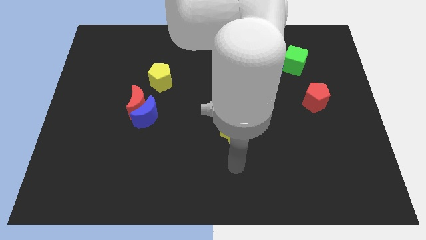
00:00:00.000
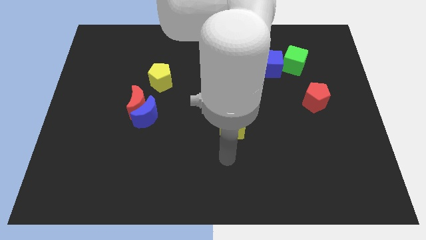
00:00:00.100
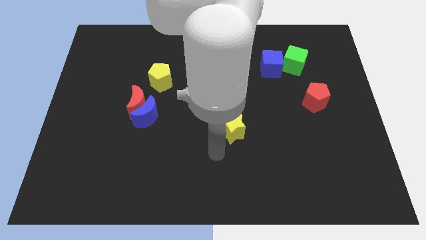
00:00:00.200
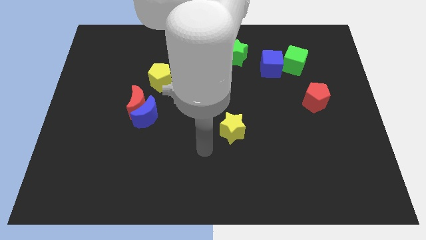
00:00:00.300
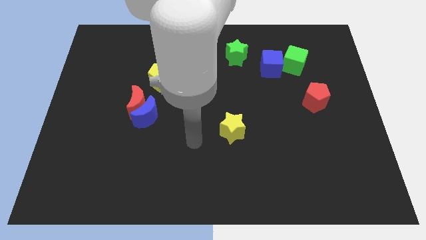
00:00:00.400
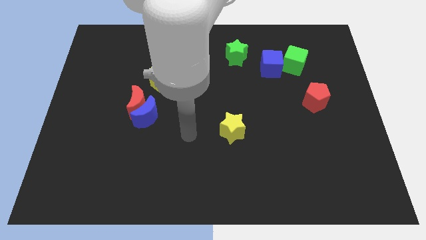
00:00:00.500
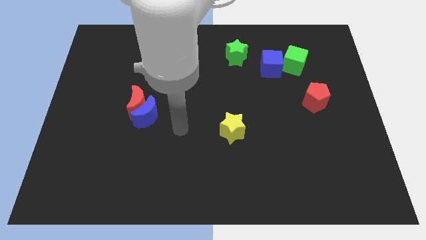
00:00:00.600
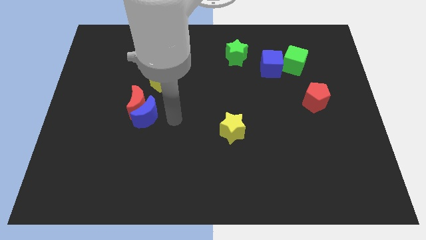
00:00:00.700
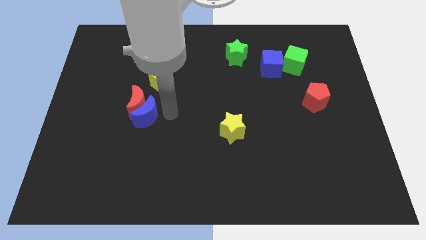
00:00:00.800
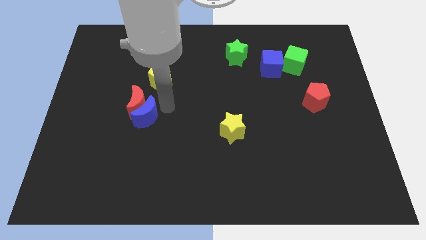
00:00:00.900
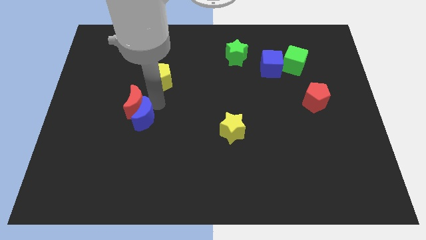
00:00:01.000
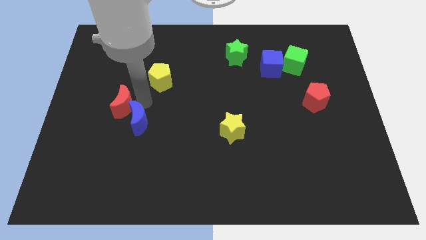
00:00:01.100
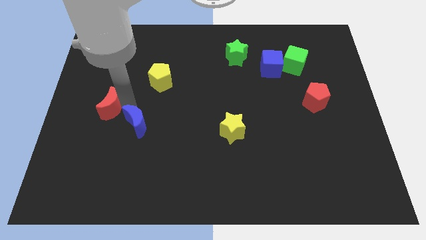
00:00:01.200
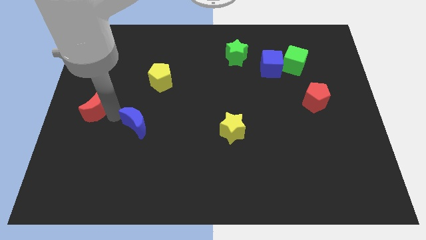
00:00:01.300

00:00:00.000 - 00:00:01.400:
move the blue moon away from the red moon

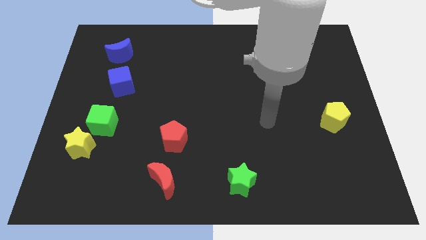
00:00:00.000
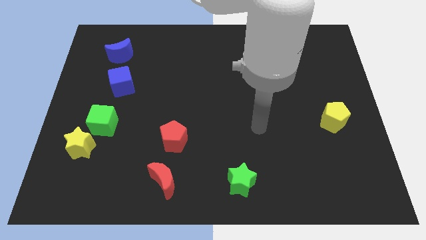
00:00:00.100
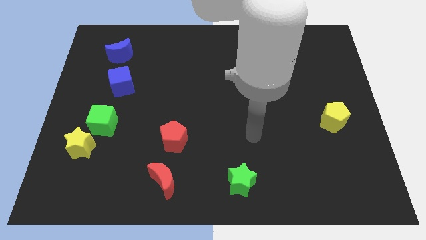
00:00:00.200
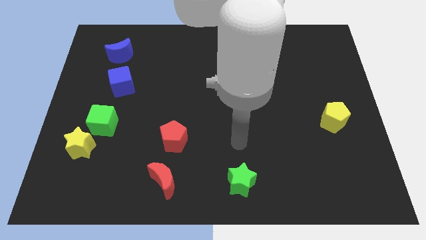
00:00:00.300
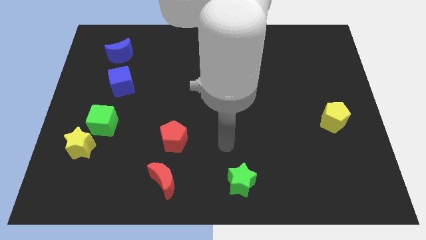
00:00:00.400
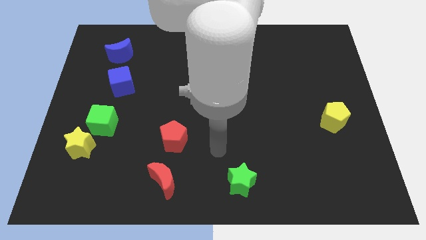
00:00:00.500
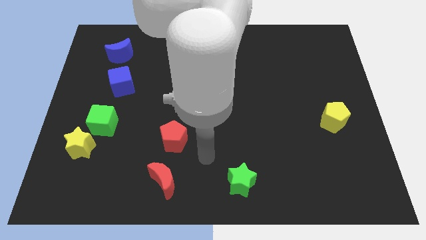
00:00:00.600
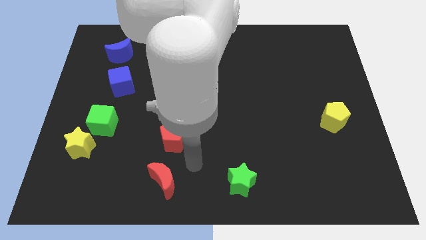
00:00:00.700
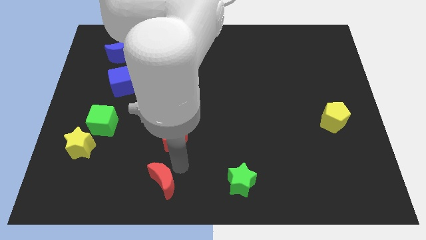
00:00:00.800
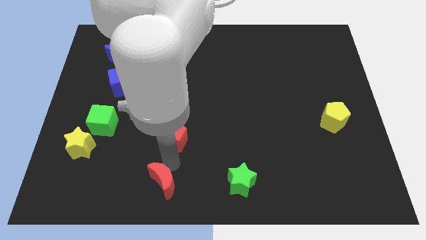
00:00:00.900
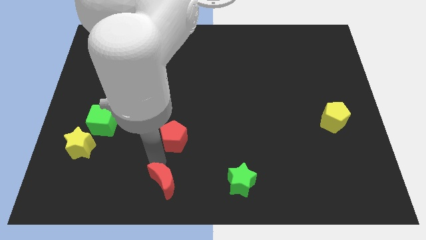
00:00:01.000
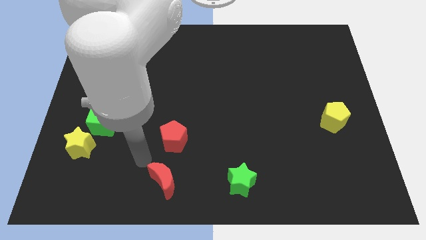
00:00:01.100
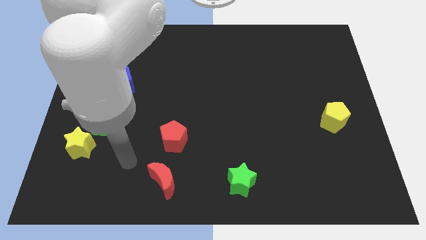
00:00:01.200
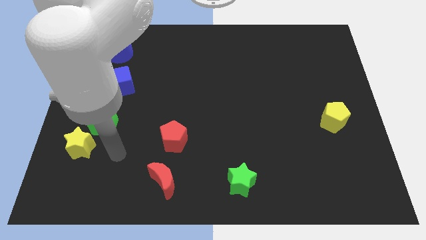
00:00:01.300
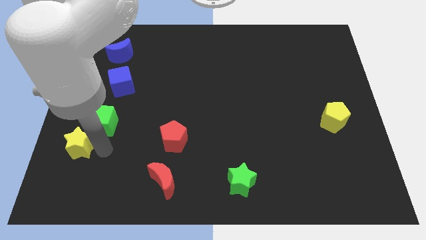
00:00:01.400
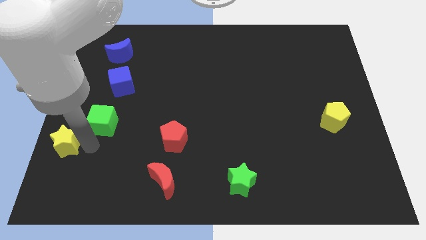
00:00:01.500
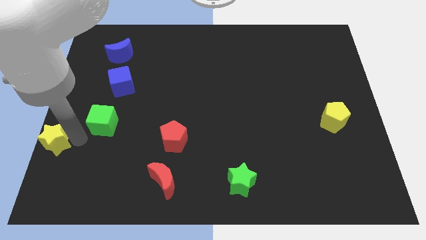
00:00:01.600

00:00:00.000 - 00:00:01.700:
separate the green cube from the yellow star

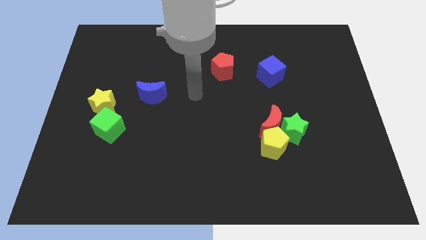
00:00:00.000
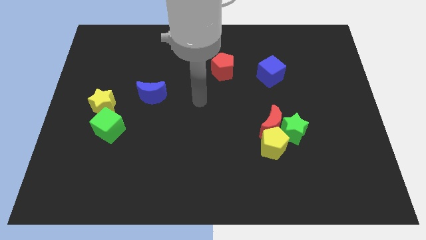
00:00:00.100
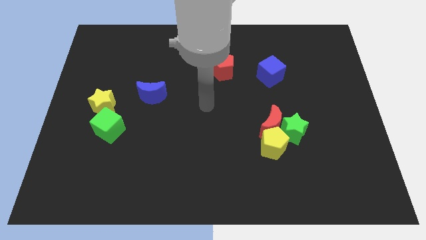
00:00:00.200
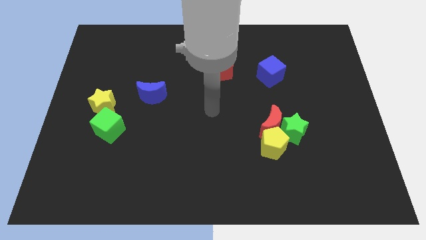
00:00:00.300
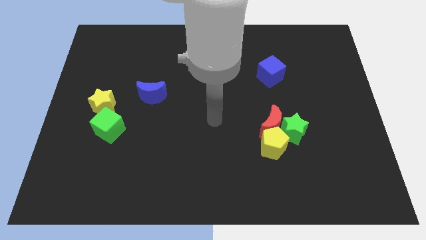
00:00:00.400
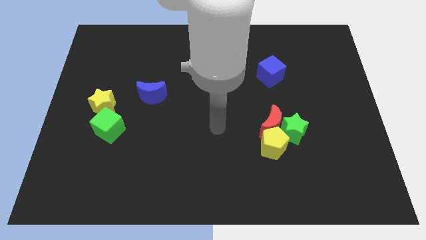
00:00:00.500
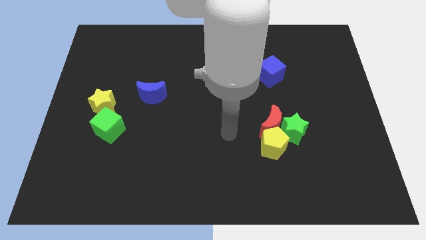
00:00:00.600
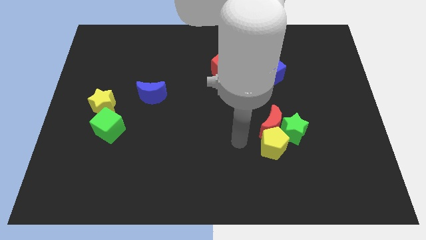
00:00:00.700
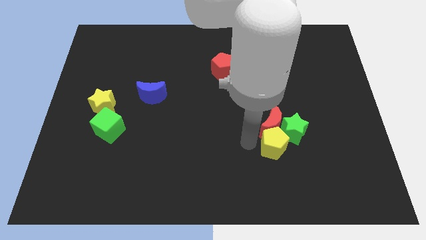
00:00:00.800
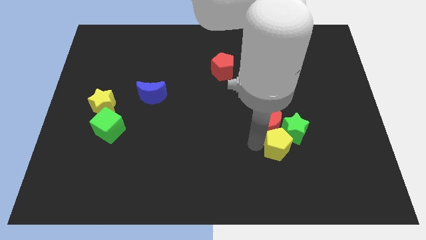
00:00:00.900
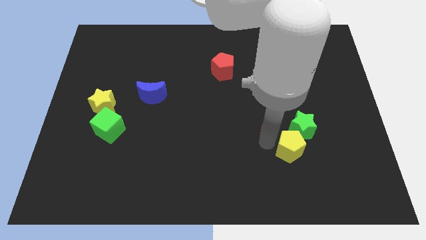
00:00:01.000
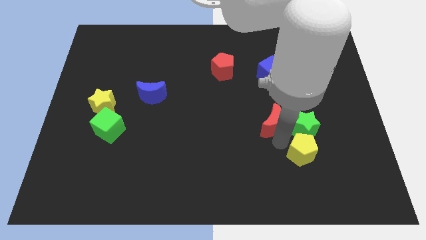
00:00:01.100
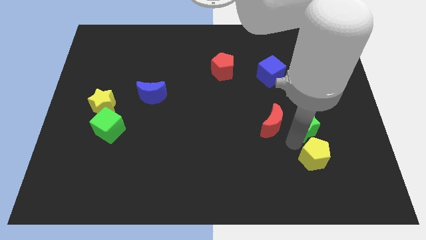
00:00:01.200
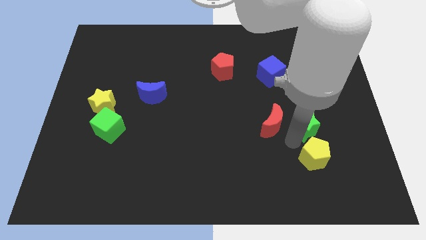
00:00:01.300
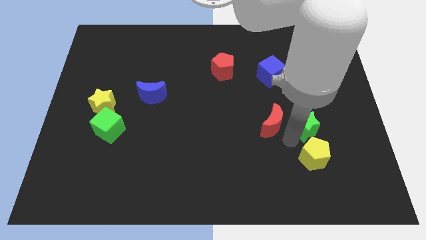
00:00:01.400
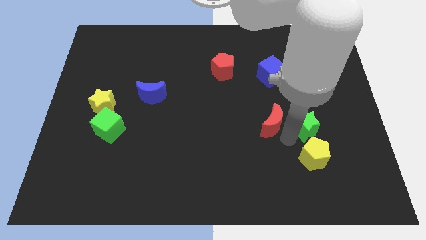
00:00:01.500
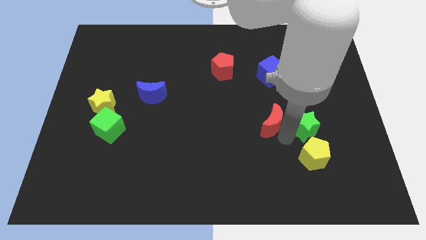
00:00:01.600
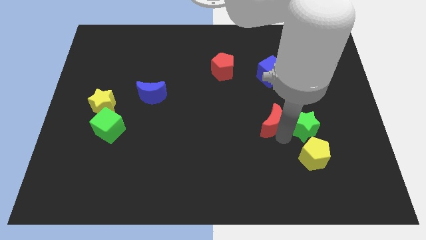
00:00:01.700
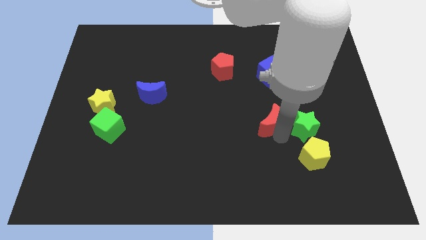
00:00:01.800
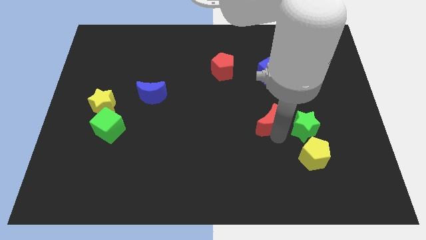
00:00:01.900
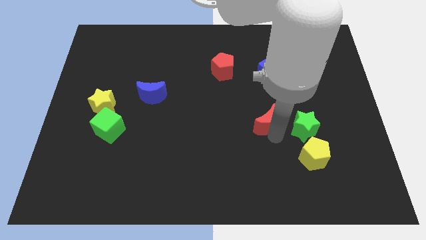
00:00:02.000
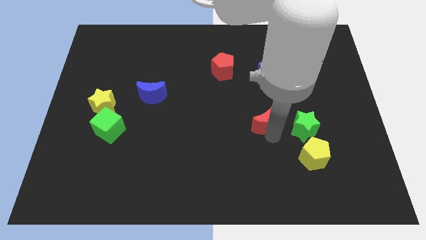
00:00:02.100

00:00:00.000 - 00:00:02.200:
move the red moon away from the green star and yellow pentagon

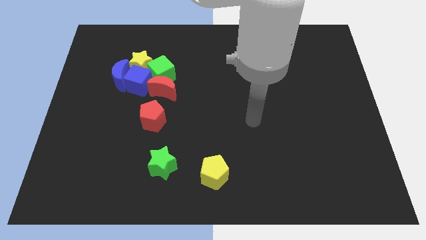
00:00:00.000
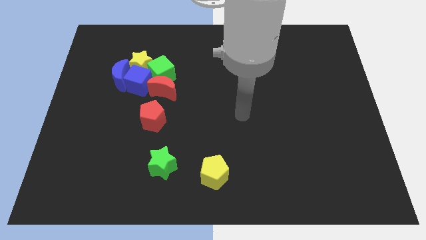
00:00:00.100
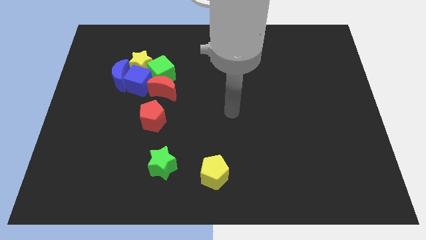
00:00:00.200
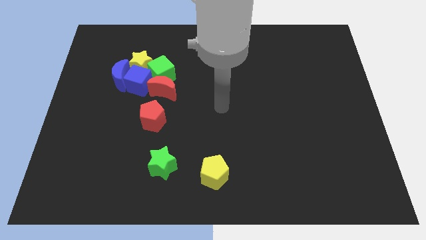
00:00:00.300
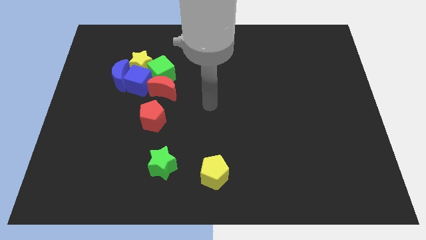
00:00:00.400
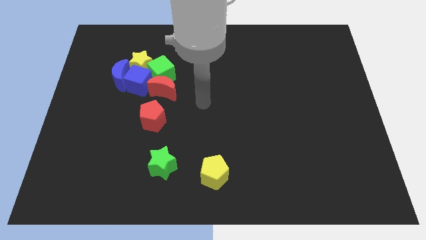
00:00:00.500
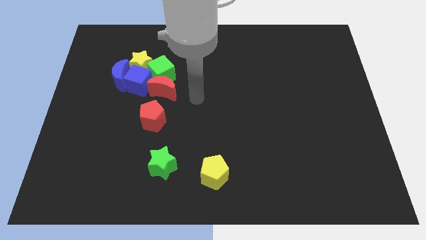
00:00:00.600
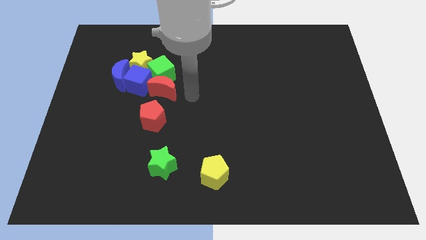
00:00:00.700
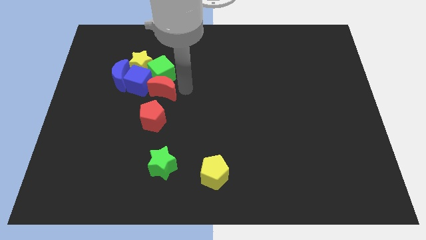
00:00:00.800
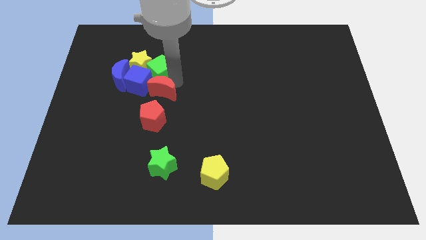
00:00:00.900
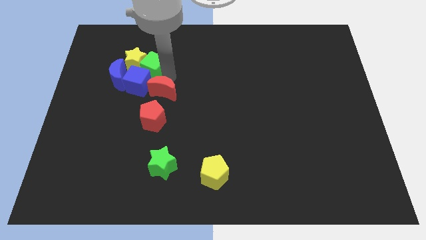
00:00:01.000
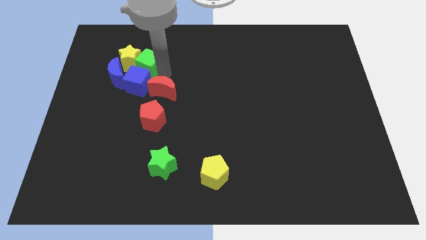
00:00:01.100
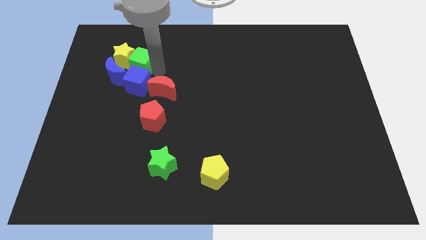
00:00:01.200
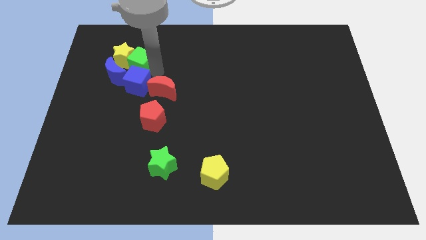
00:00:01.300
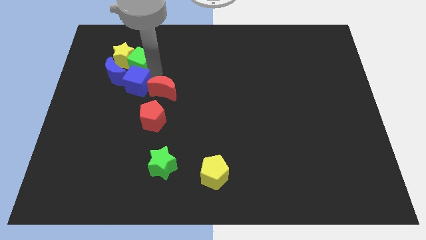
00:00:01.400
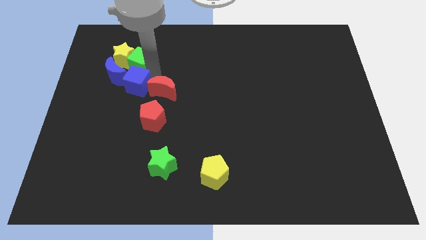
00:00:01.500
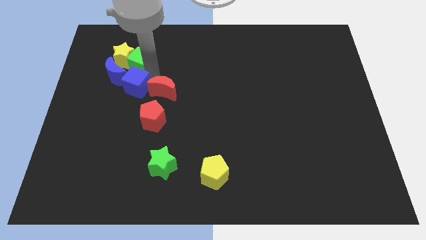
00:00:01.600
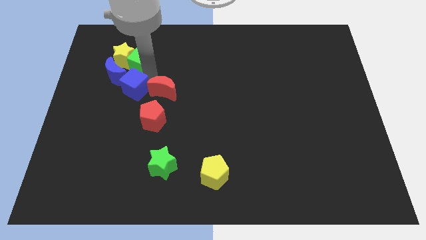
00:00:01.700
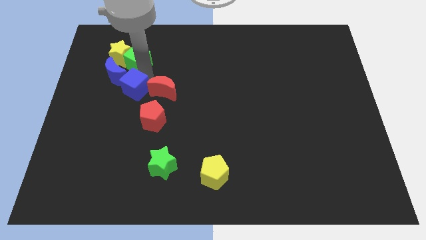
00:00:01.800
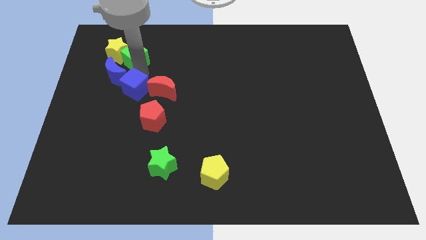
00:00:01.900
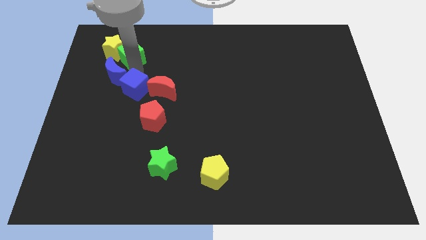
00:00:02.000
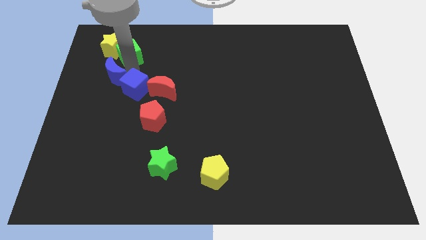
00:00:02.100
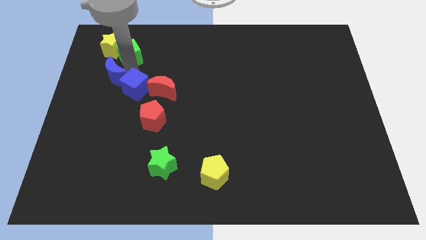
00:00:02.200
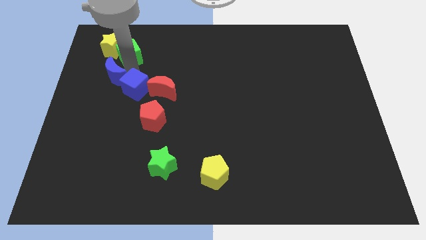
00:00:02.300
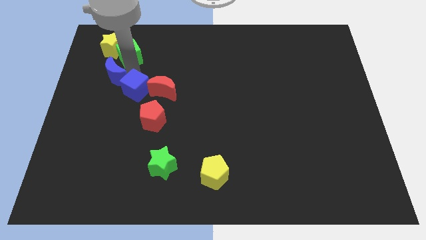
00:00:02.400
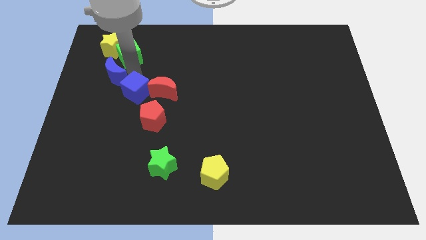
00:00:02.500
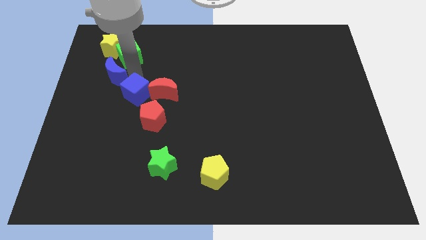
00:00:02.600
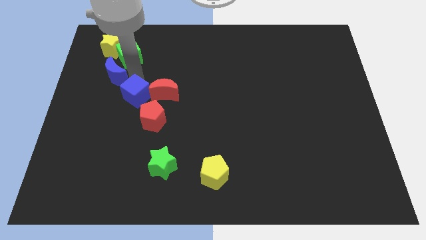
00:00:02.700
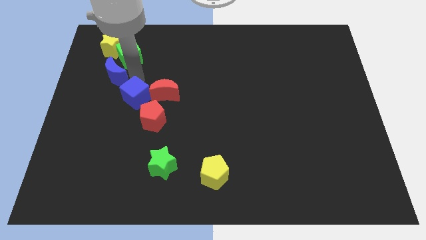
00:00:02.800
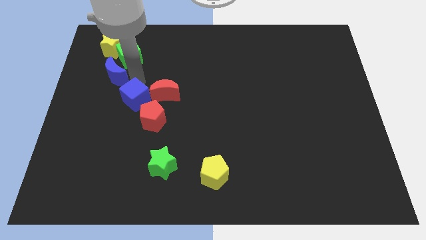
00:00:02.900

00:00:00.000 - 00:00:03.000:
move the blue cube away from the clump

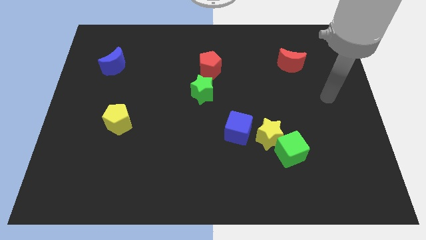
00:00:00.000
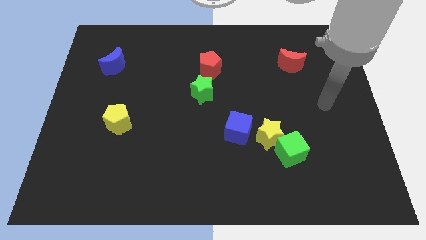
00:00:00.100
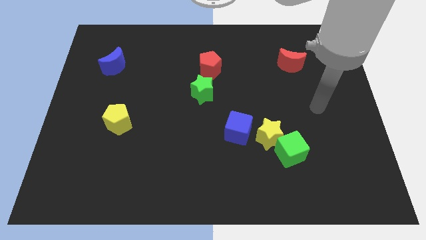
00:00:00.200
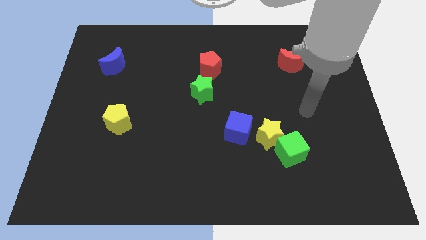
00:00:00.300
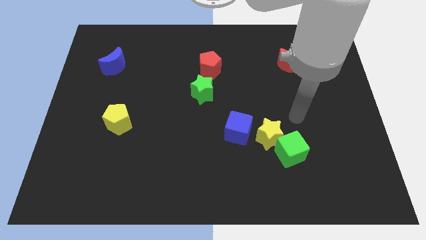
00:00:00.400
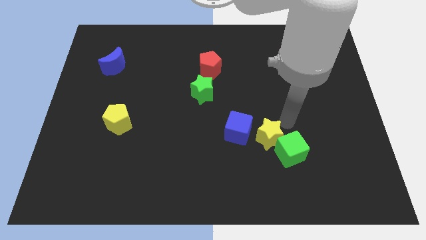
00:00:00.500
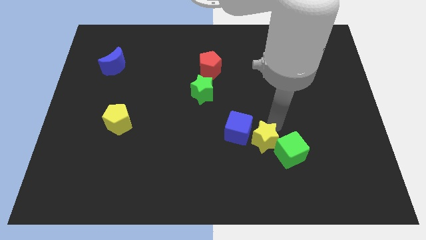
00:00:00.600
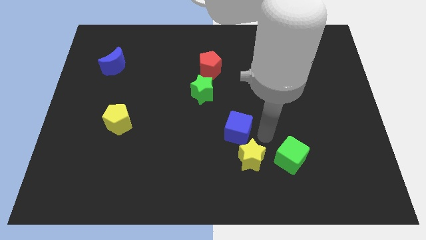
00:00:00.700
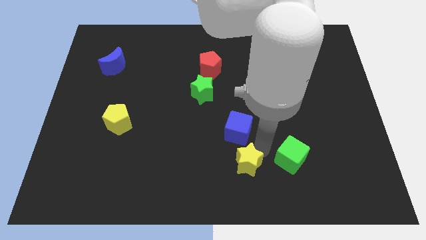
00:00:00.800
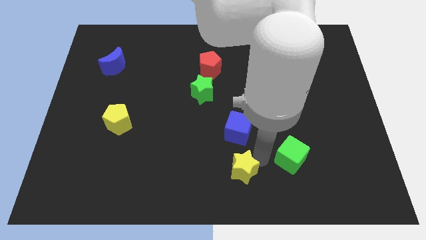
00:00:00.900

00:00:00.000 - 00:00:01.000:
move the green cube away from the yellow star
